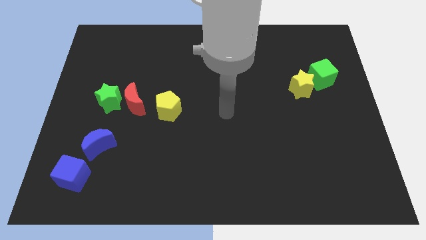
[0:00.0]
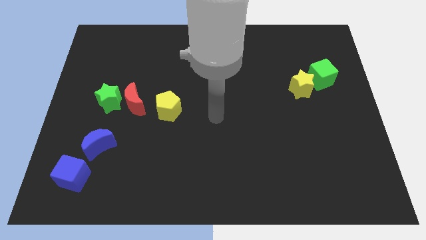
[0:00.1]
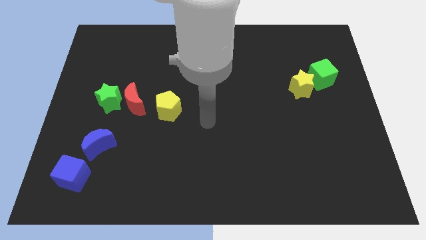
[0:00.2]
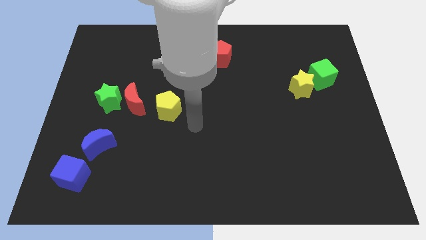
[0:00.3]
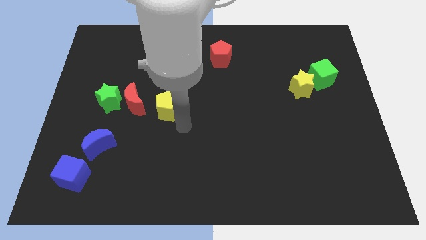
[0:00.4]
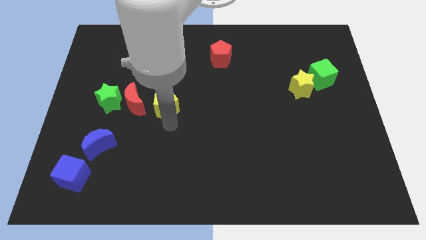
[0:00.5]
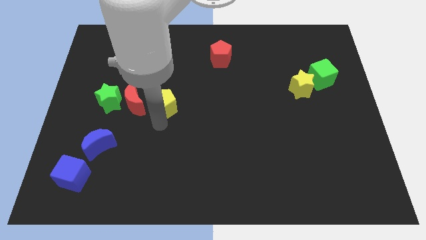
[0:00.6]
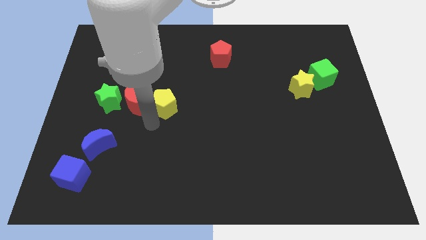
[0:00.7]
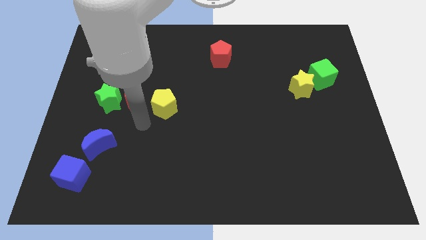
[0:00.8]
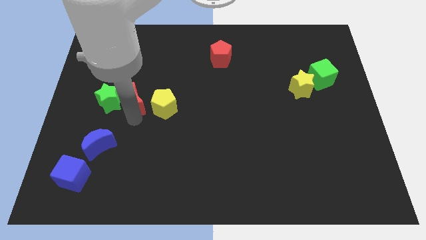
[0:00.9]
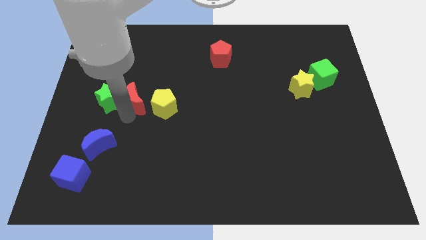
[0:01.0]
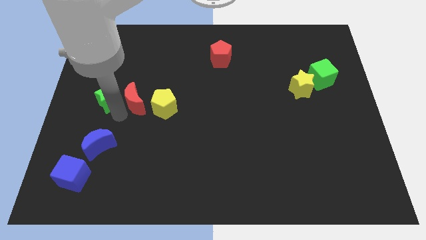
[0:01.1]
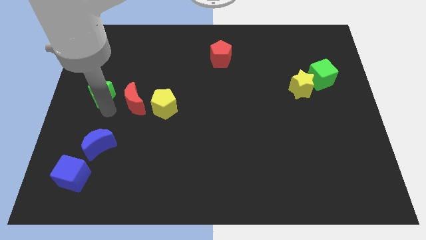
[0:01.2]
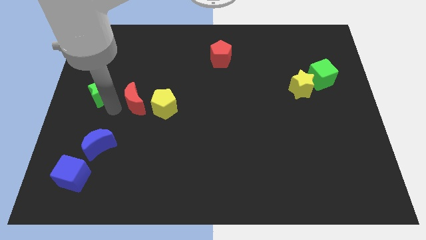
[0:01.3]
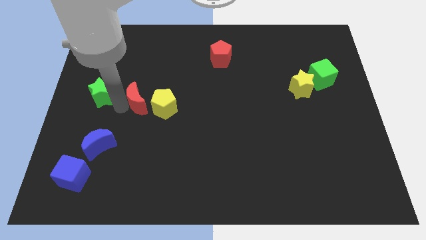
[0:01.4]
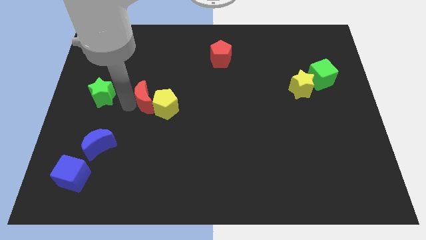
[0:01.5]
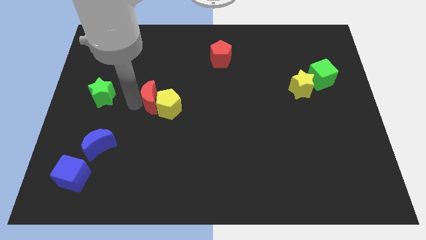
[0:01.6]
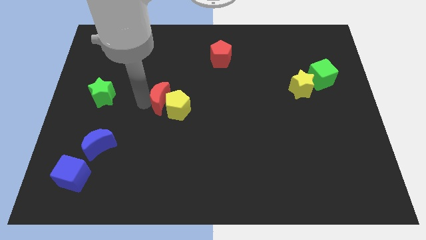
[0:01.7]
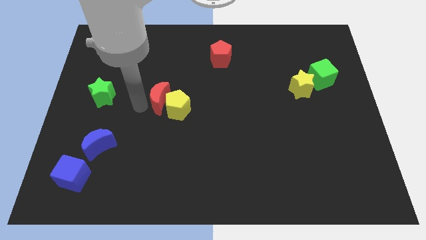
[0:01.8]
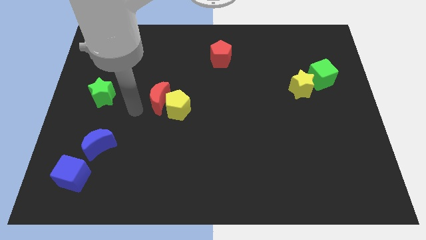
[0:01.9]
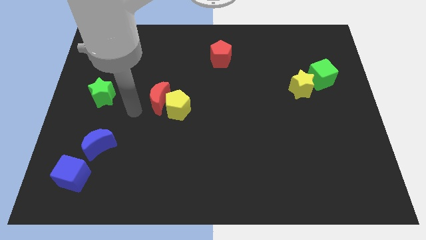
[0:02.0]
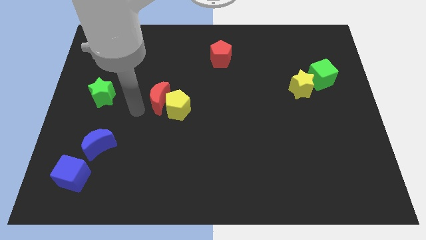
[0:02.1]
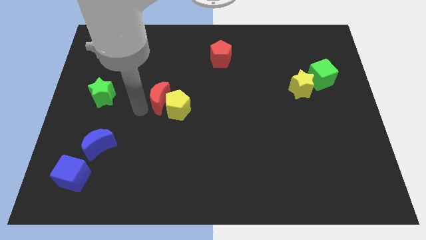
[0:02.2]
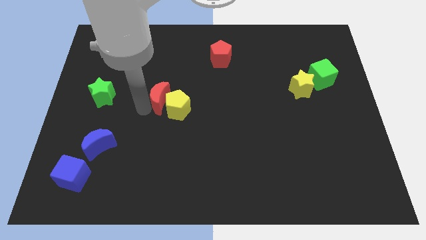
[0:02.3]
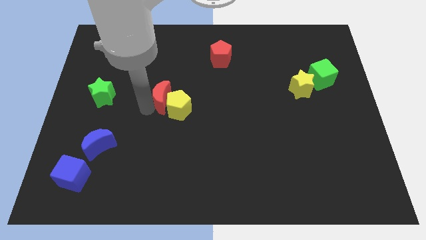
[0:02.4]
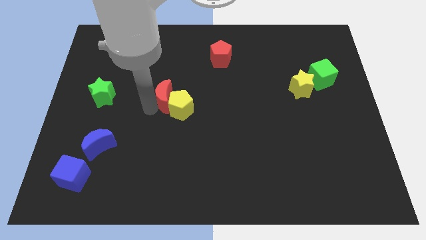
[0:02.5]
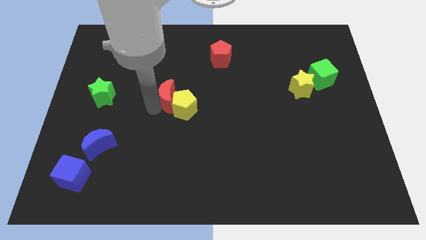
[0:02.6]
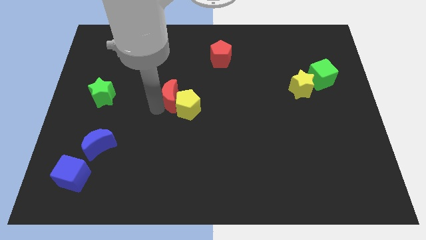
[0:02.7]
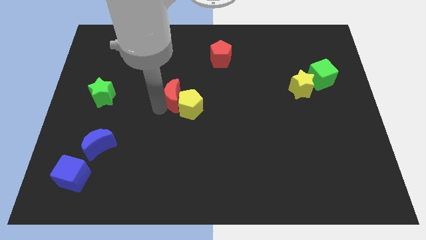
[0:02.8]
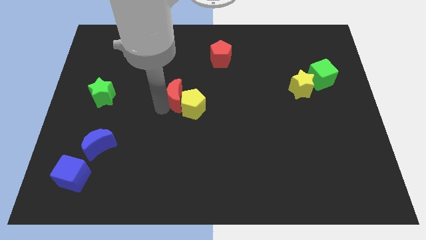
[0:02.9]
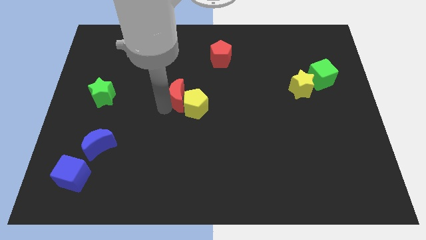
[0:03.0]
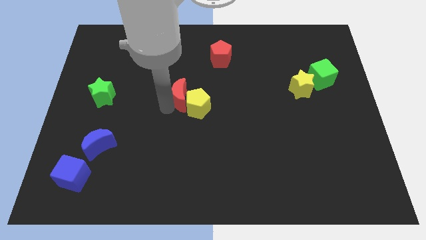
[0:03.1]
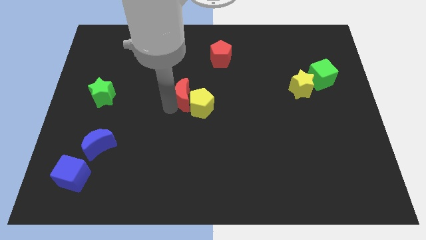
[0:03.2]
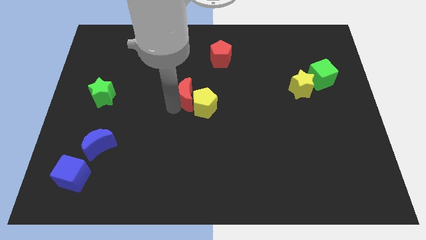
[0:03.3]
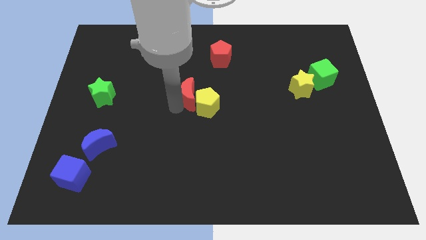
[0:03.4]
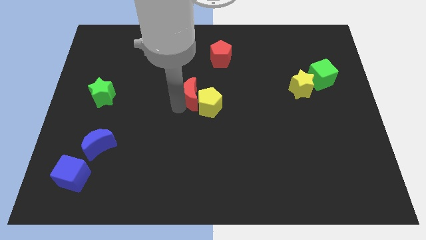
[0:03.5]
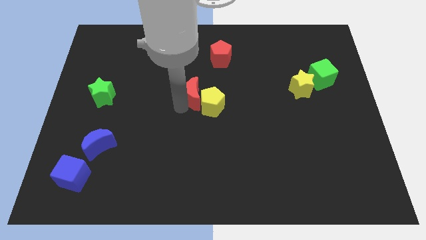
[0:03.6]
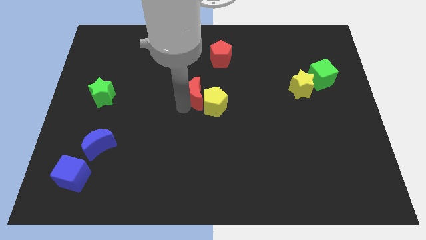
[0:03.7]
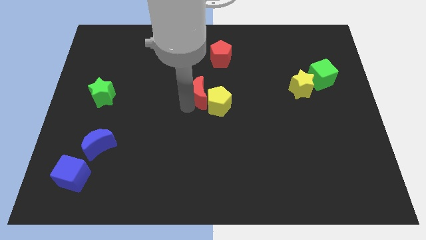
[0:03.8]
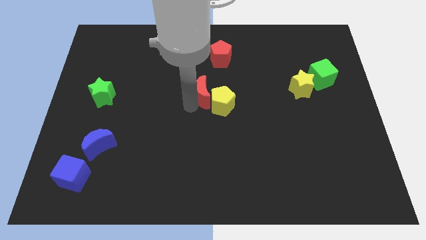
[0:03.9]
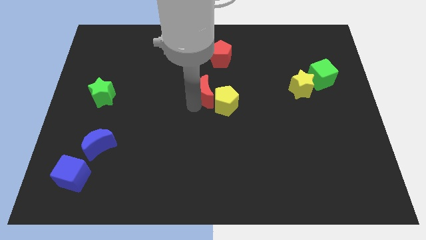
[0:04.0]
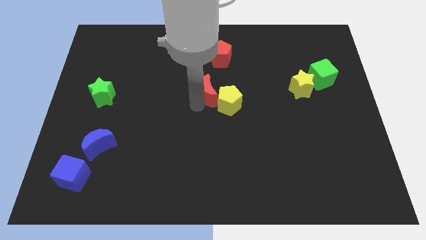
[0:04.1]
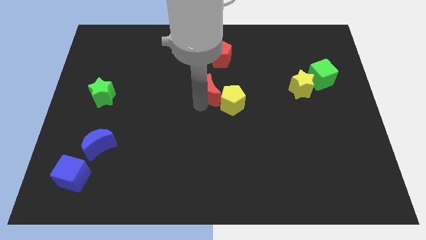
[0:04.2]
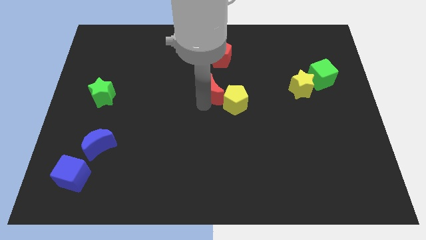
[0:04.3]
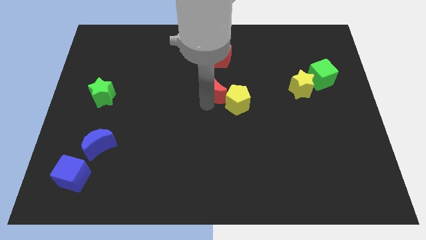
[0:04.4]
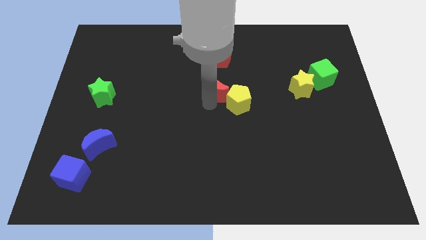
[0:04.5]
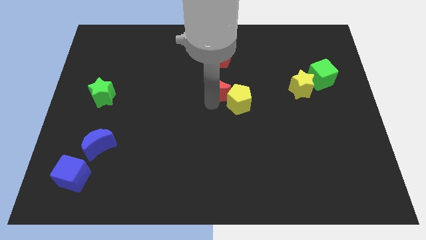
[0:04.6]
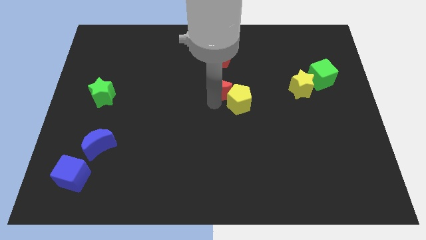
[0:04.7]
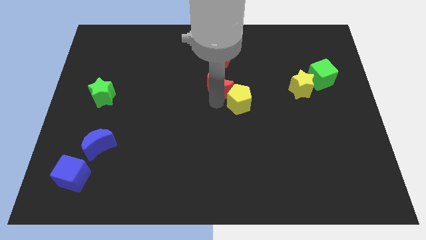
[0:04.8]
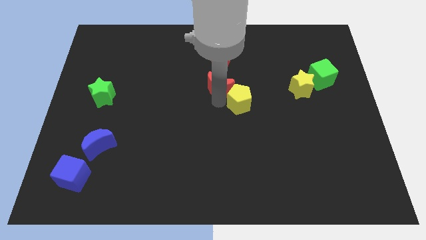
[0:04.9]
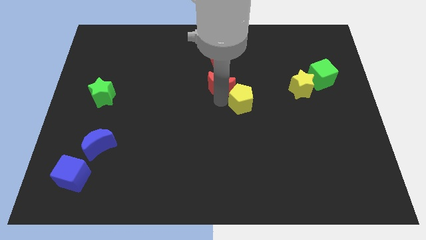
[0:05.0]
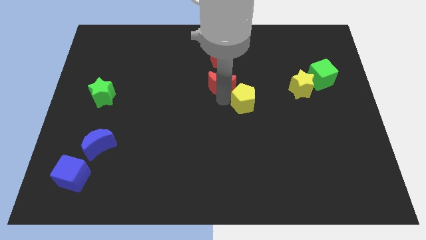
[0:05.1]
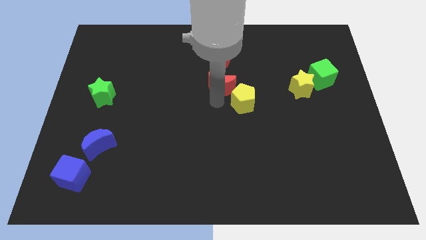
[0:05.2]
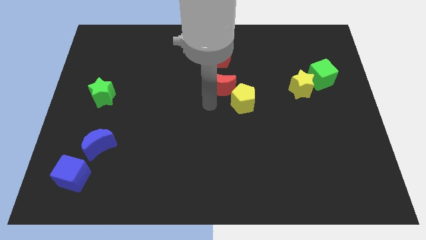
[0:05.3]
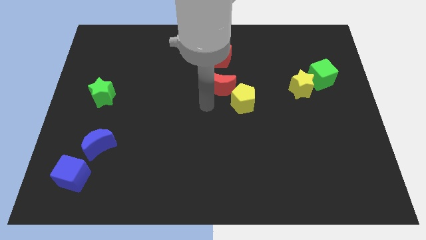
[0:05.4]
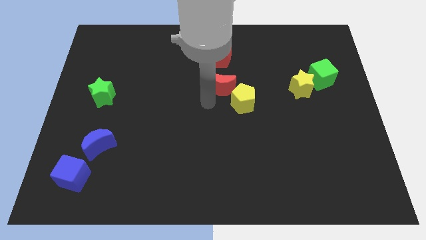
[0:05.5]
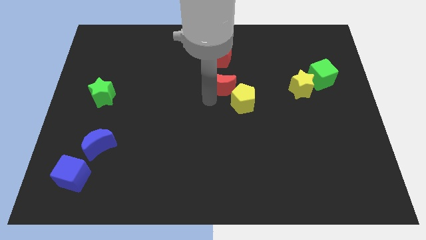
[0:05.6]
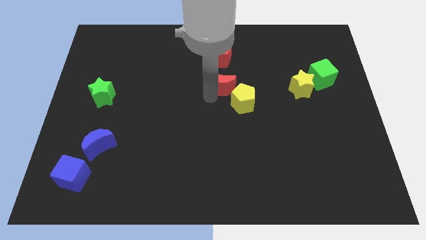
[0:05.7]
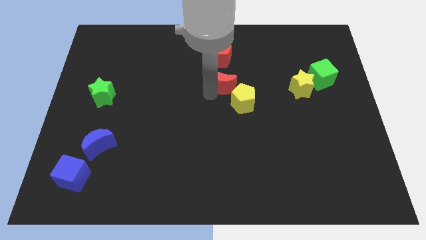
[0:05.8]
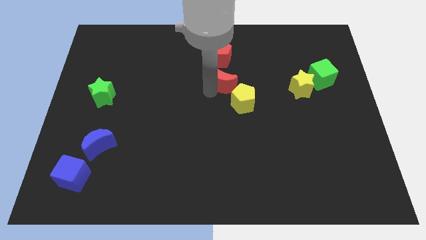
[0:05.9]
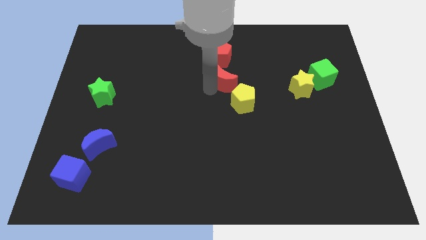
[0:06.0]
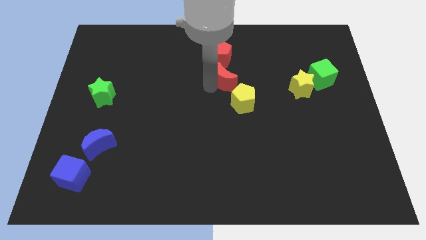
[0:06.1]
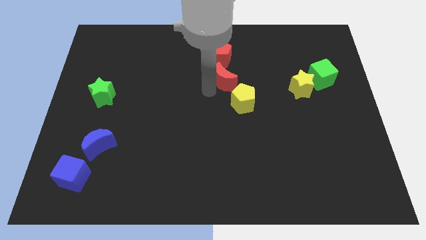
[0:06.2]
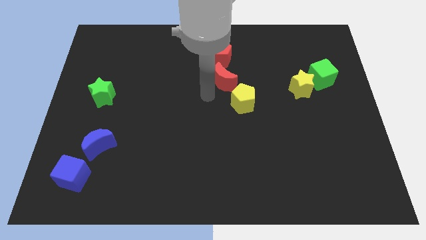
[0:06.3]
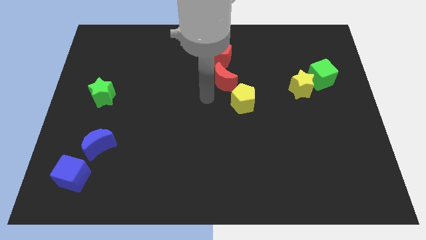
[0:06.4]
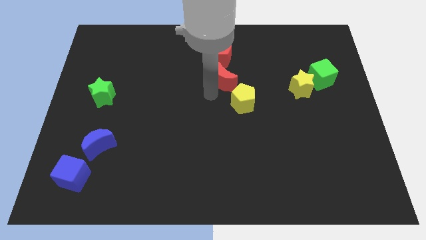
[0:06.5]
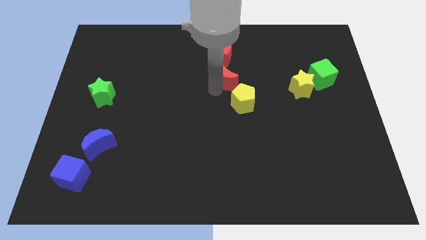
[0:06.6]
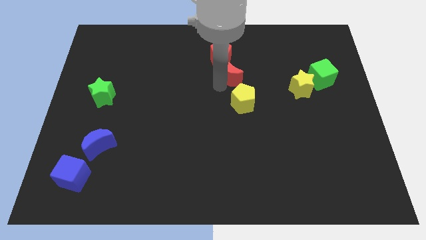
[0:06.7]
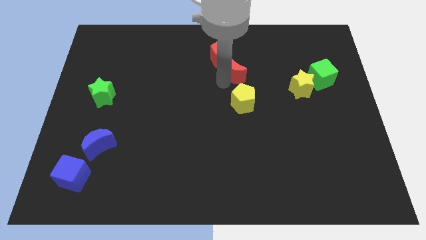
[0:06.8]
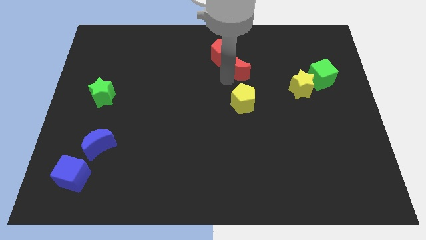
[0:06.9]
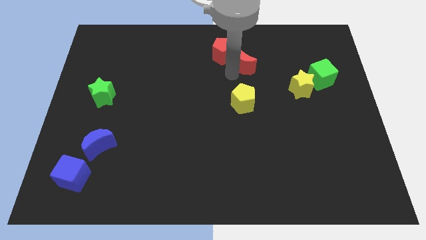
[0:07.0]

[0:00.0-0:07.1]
move the red moon to the right of the red pentagon
